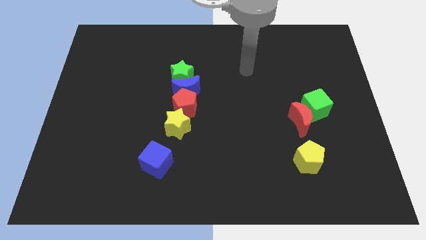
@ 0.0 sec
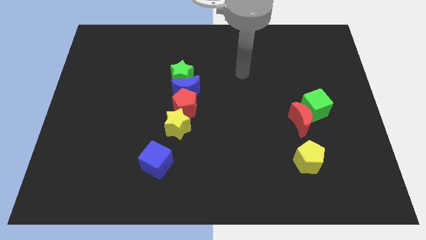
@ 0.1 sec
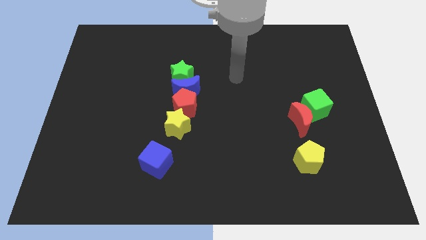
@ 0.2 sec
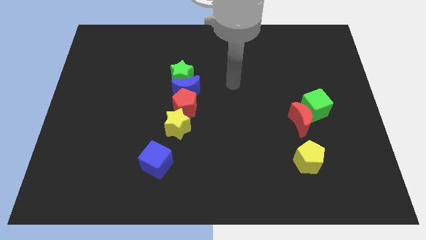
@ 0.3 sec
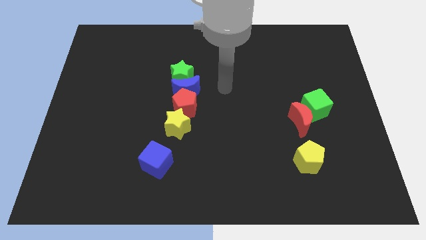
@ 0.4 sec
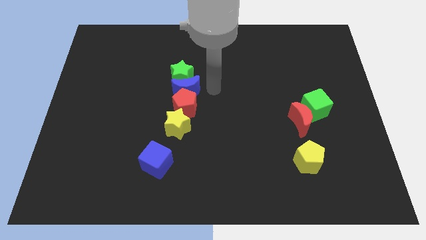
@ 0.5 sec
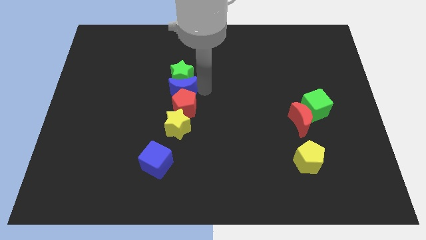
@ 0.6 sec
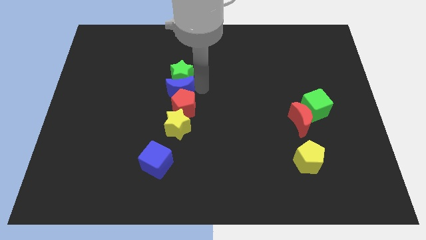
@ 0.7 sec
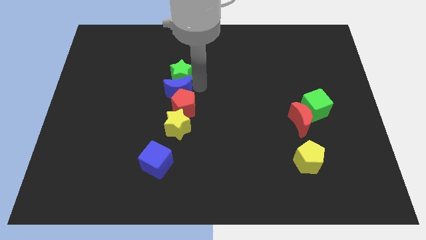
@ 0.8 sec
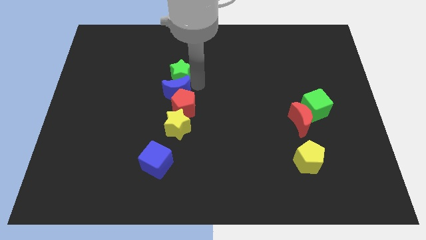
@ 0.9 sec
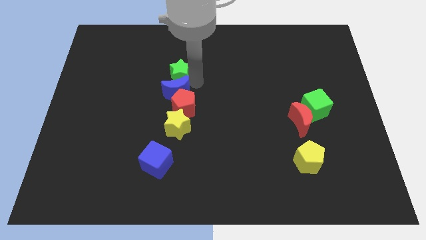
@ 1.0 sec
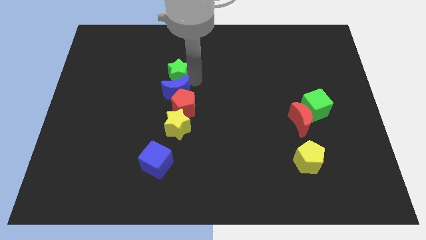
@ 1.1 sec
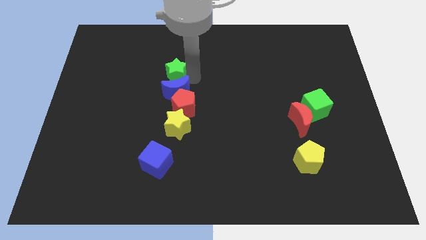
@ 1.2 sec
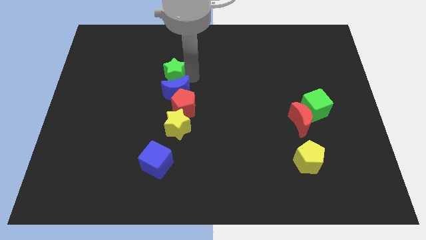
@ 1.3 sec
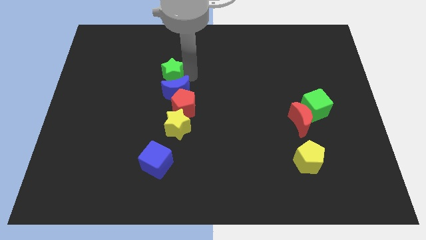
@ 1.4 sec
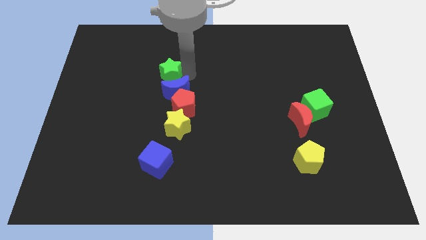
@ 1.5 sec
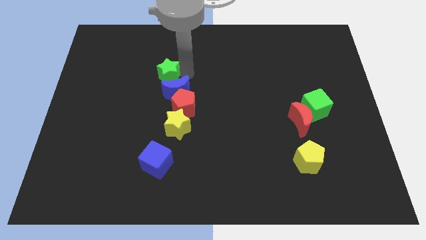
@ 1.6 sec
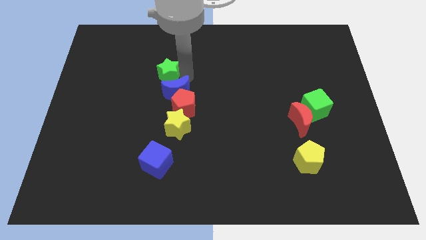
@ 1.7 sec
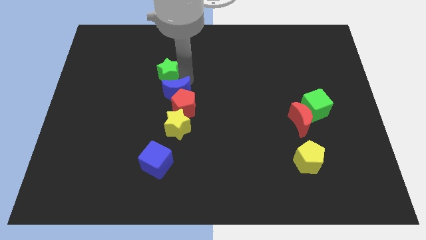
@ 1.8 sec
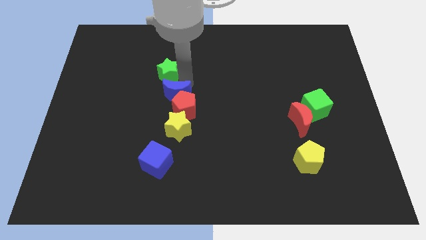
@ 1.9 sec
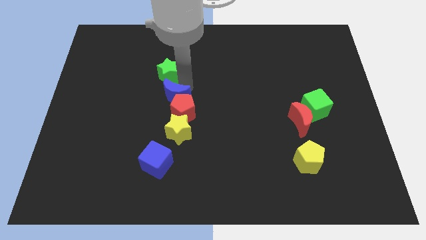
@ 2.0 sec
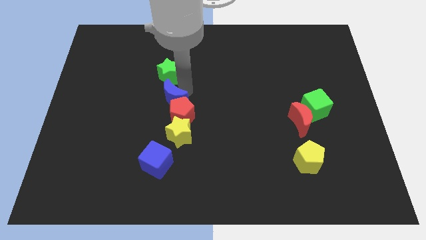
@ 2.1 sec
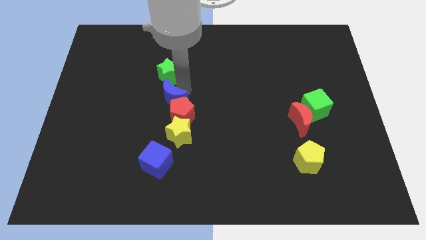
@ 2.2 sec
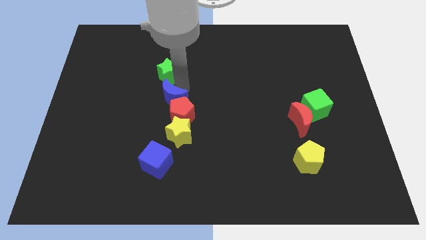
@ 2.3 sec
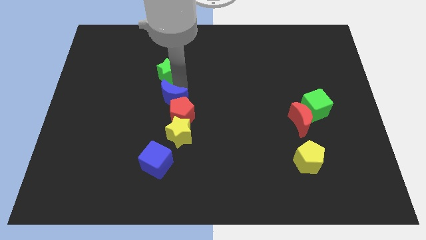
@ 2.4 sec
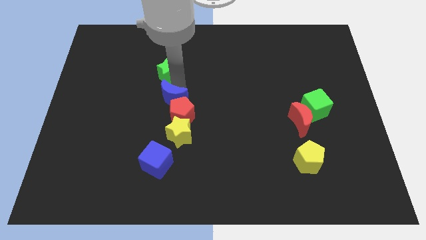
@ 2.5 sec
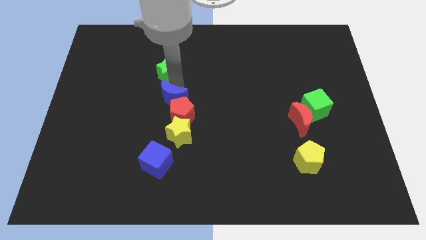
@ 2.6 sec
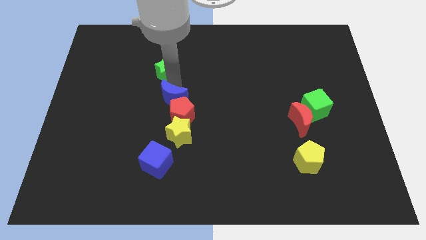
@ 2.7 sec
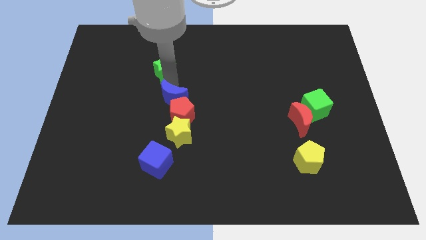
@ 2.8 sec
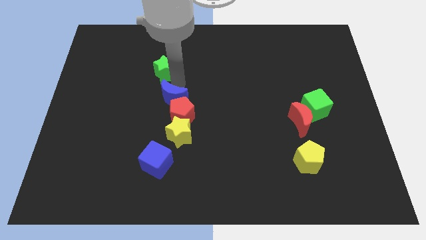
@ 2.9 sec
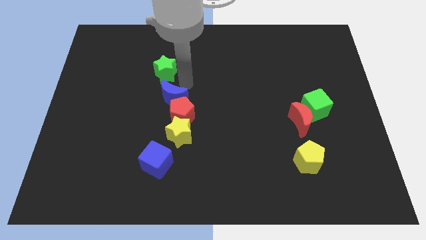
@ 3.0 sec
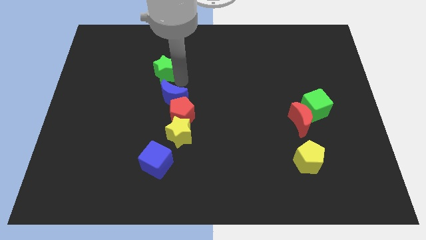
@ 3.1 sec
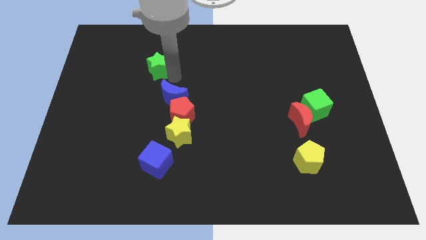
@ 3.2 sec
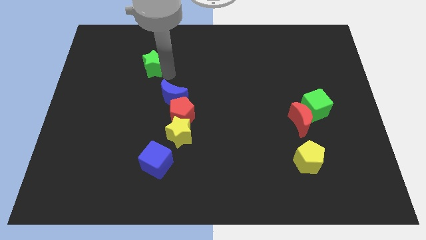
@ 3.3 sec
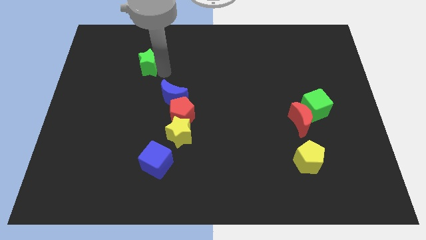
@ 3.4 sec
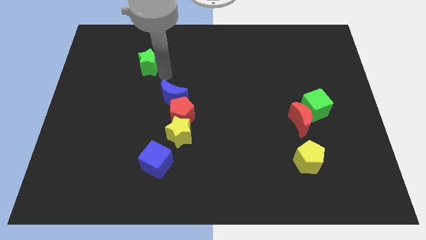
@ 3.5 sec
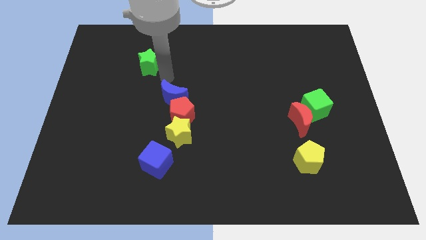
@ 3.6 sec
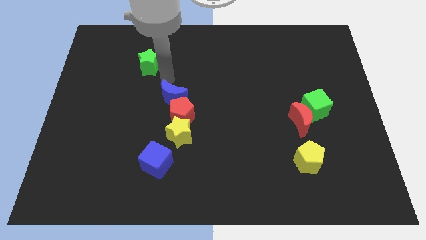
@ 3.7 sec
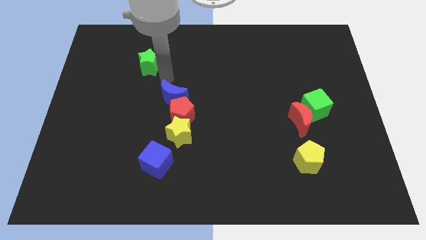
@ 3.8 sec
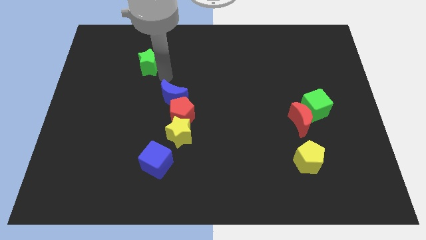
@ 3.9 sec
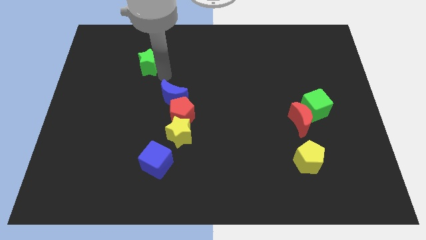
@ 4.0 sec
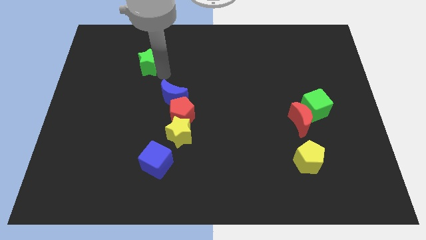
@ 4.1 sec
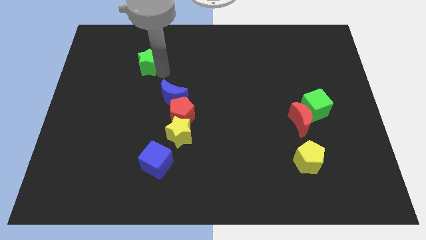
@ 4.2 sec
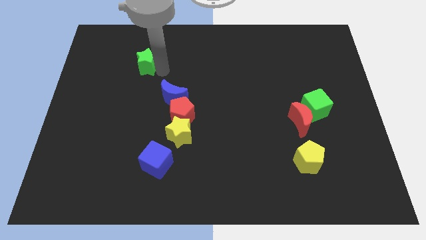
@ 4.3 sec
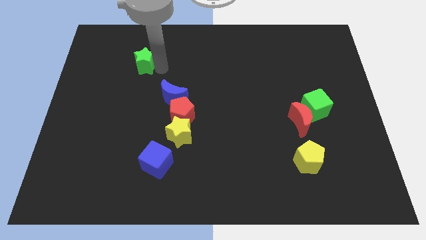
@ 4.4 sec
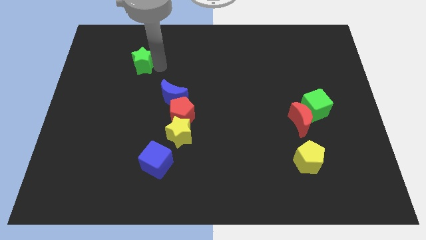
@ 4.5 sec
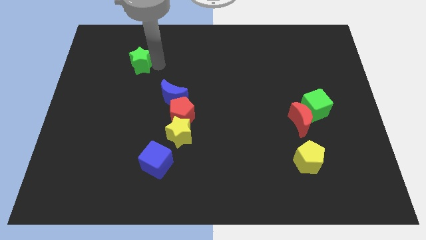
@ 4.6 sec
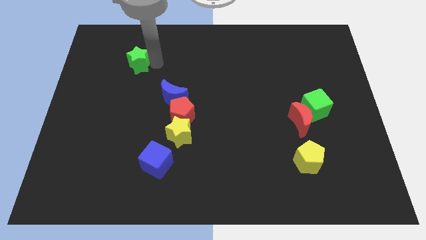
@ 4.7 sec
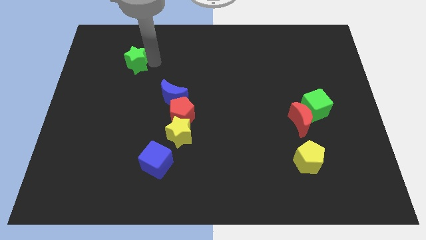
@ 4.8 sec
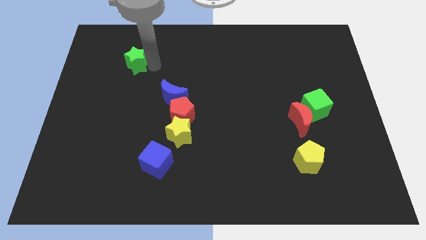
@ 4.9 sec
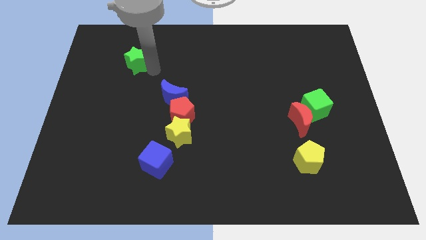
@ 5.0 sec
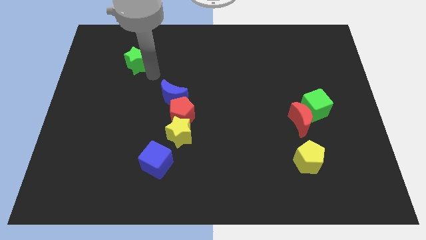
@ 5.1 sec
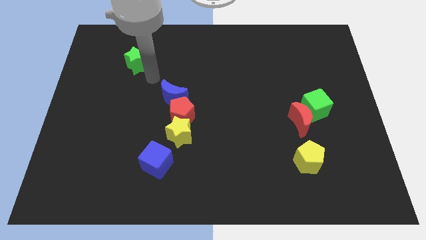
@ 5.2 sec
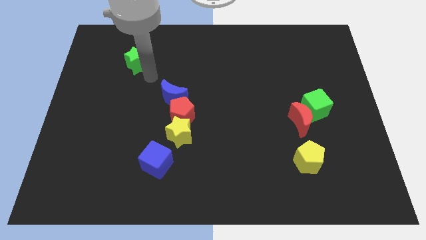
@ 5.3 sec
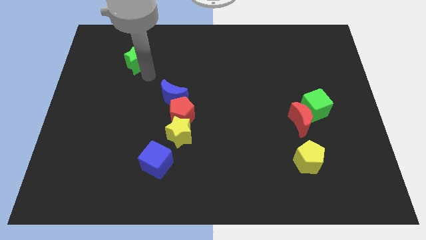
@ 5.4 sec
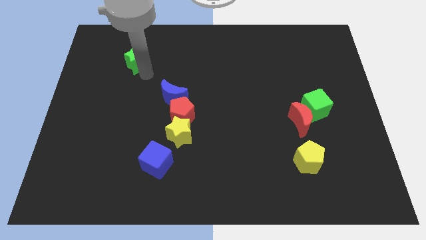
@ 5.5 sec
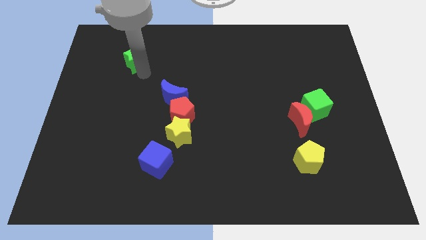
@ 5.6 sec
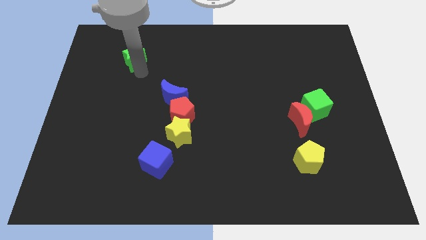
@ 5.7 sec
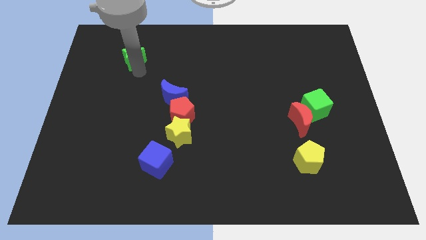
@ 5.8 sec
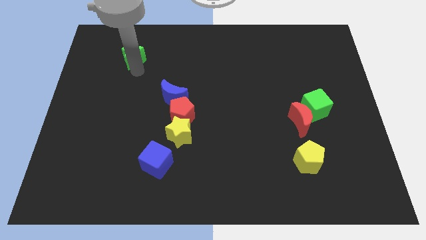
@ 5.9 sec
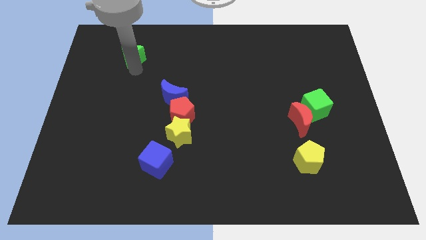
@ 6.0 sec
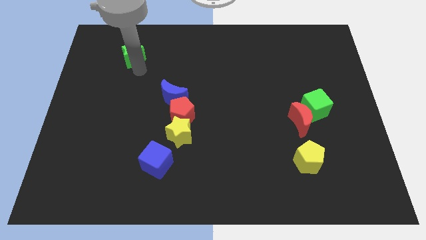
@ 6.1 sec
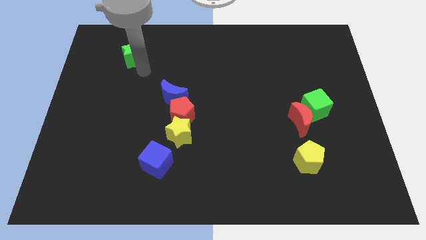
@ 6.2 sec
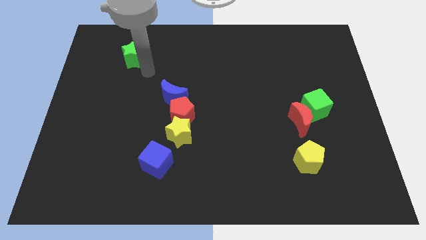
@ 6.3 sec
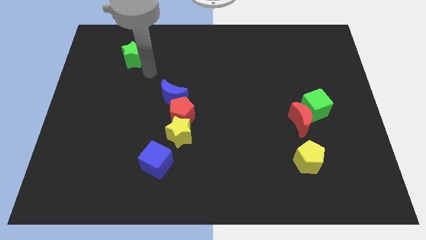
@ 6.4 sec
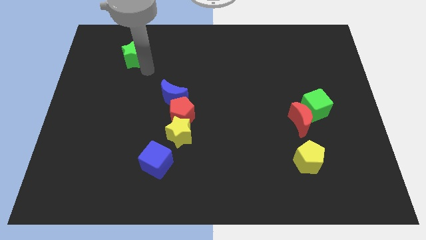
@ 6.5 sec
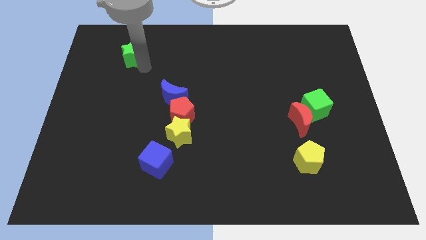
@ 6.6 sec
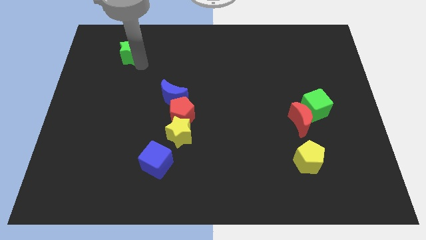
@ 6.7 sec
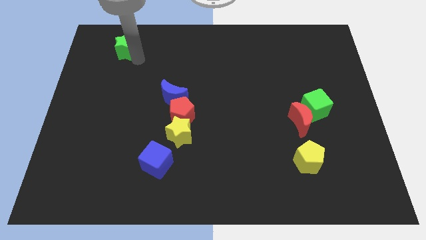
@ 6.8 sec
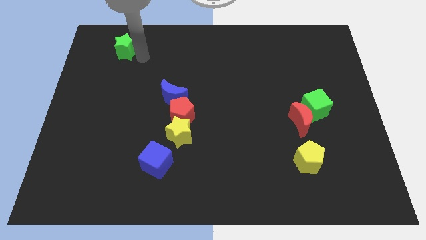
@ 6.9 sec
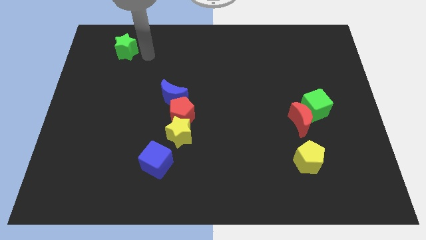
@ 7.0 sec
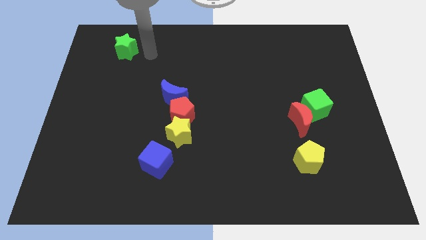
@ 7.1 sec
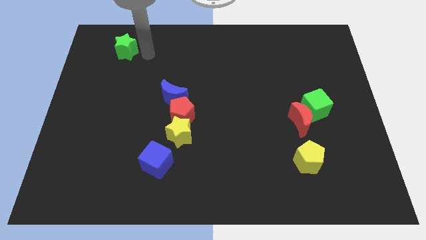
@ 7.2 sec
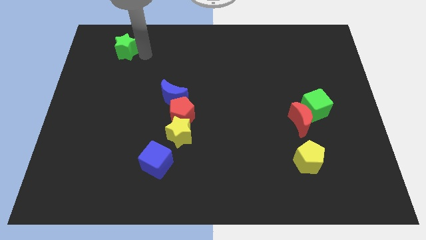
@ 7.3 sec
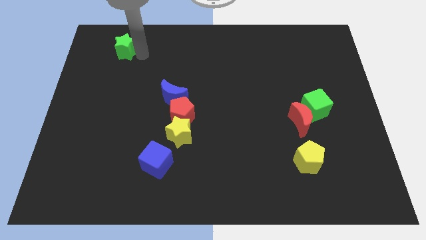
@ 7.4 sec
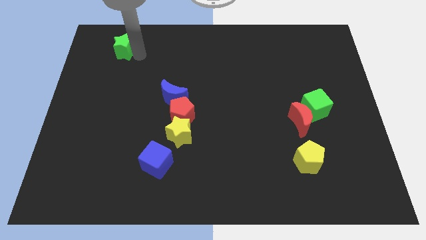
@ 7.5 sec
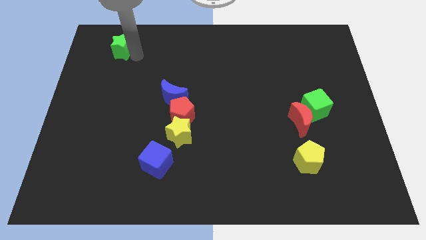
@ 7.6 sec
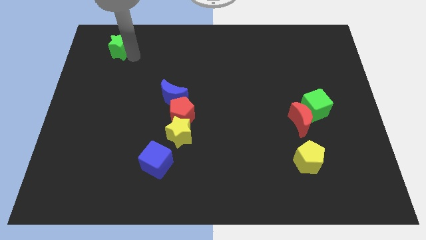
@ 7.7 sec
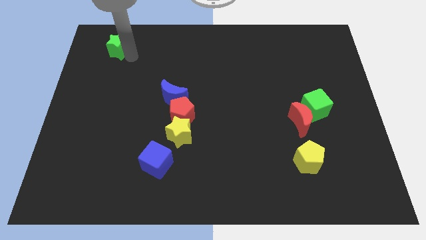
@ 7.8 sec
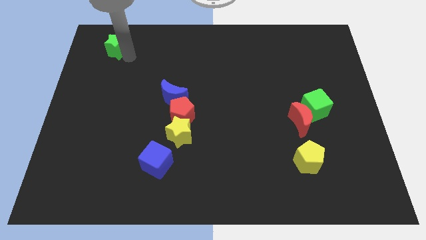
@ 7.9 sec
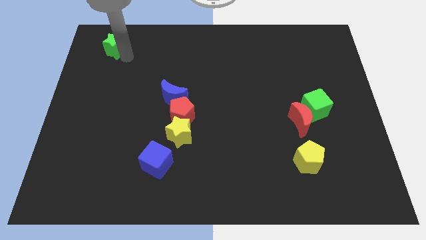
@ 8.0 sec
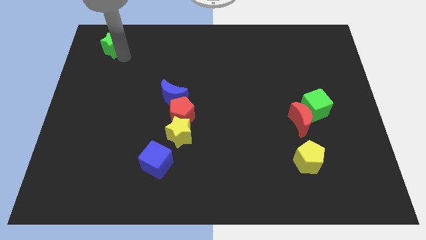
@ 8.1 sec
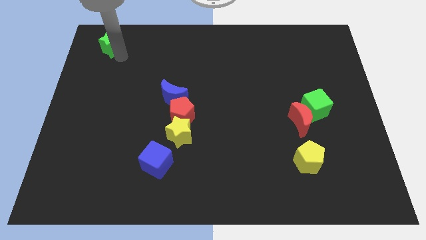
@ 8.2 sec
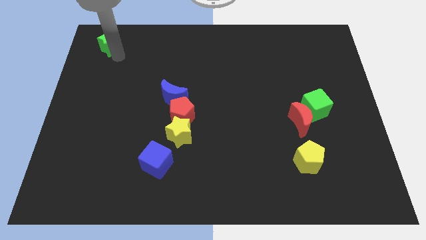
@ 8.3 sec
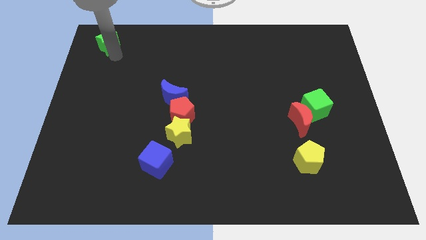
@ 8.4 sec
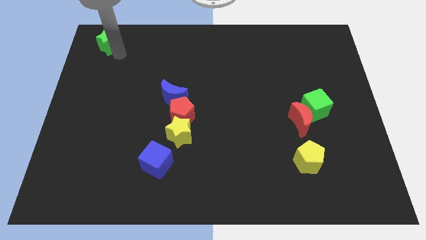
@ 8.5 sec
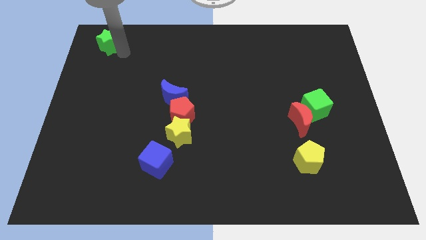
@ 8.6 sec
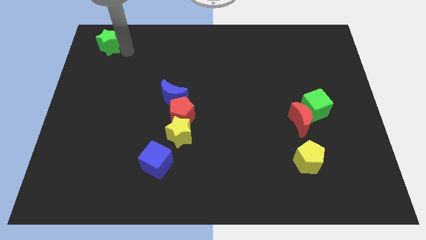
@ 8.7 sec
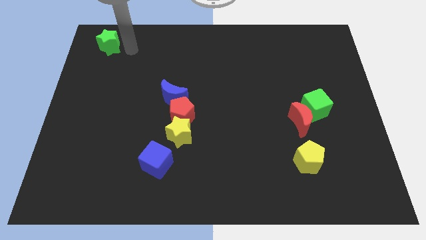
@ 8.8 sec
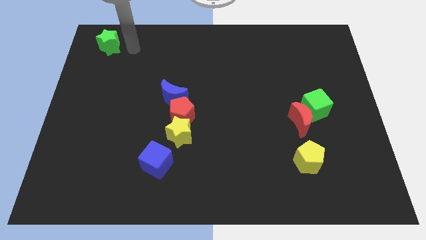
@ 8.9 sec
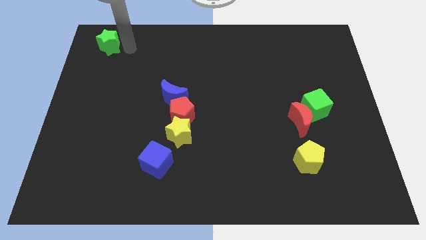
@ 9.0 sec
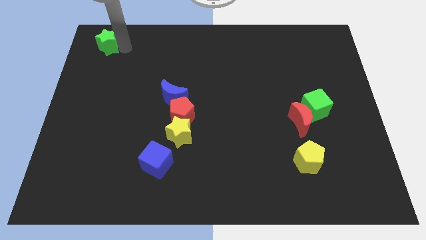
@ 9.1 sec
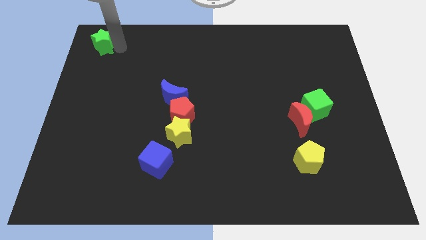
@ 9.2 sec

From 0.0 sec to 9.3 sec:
slide the green star to the top left of the board
